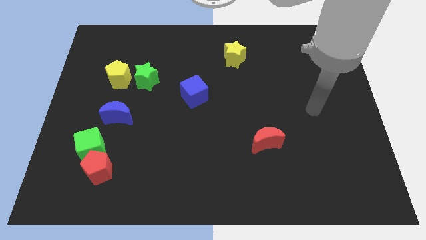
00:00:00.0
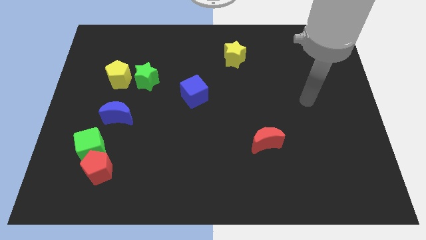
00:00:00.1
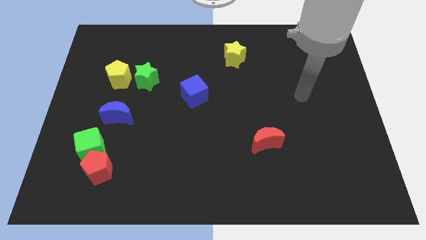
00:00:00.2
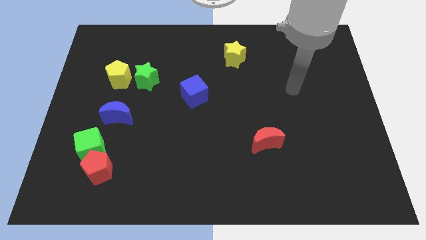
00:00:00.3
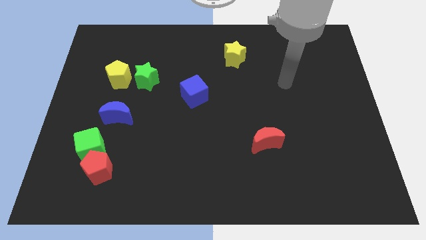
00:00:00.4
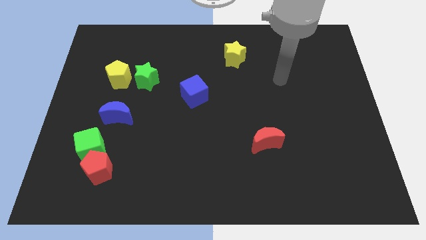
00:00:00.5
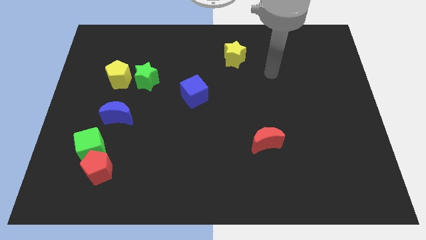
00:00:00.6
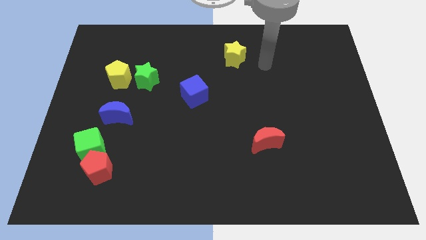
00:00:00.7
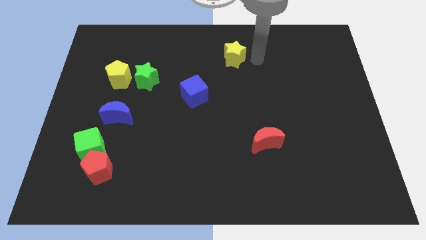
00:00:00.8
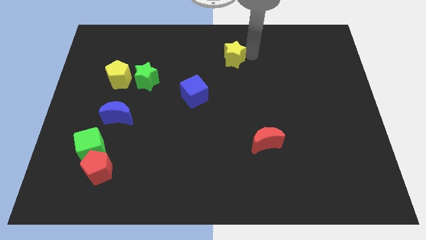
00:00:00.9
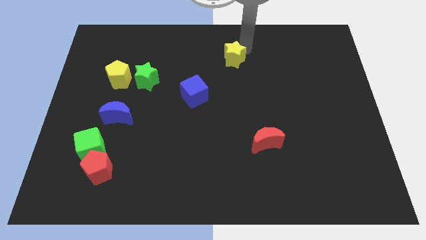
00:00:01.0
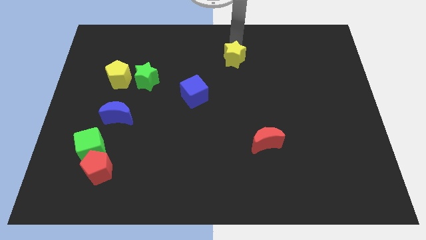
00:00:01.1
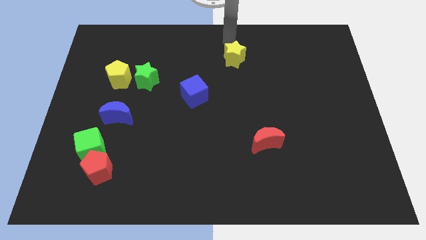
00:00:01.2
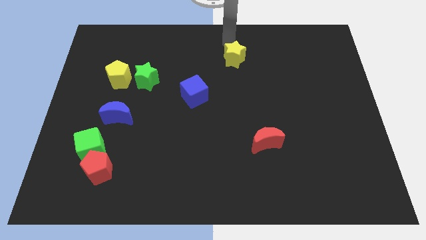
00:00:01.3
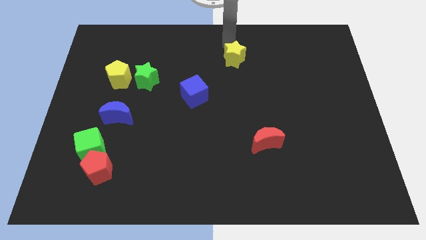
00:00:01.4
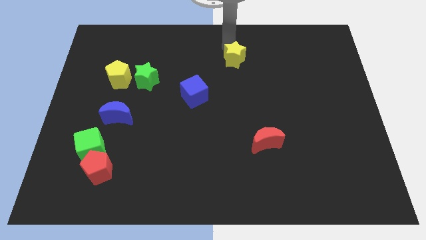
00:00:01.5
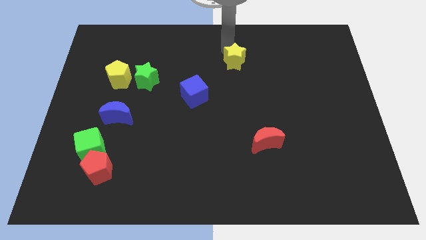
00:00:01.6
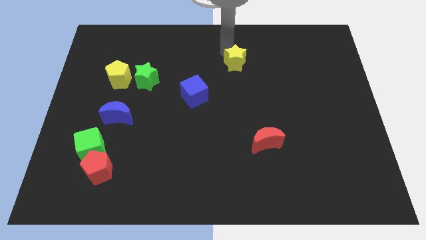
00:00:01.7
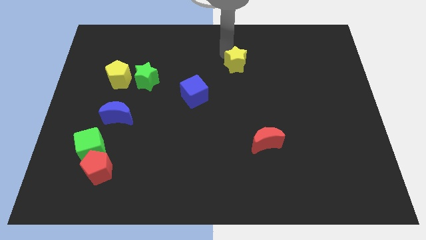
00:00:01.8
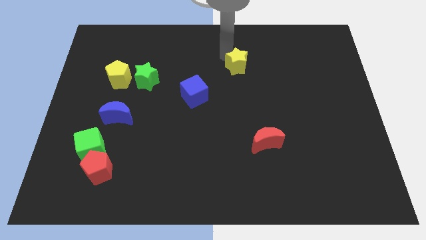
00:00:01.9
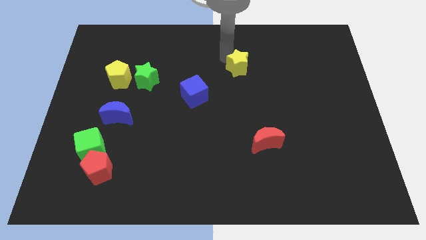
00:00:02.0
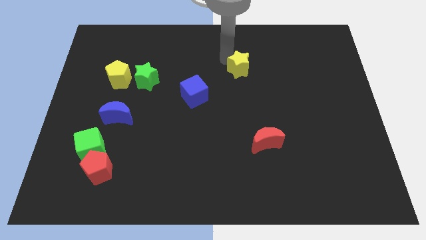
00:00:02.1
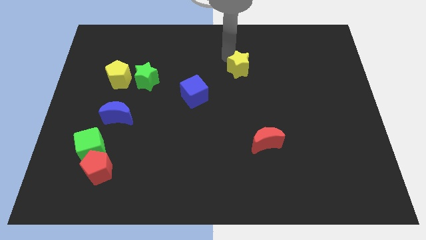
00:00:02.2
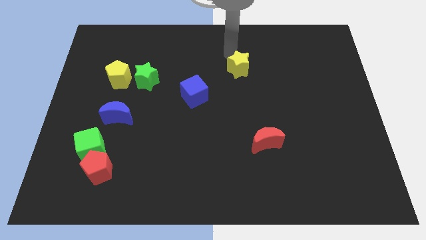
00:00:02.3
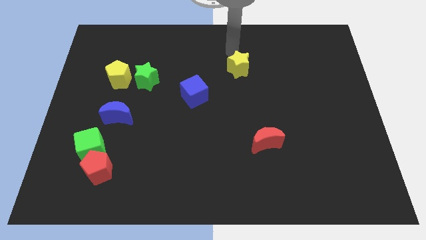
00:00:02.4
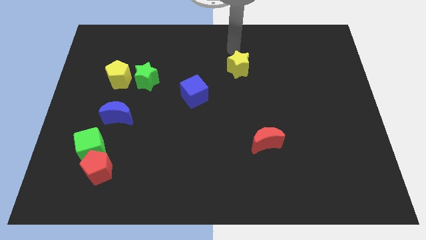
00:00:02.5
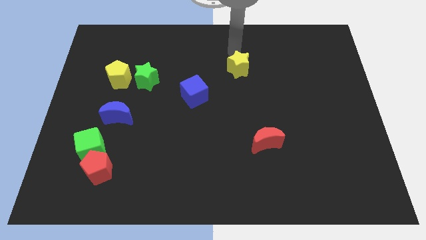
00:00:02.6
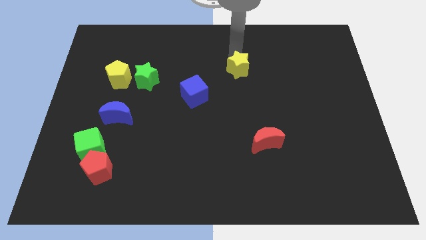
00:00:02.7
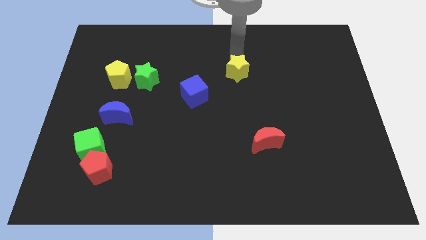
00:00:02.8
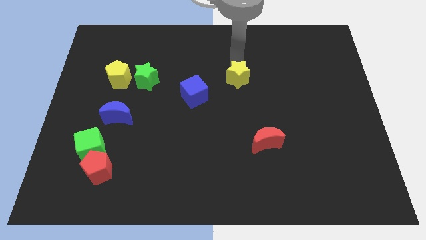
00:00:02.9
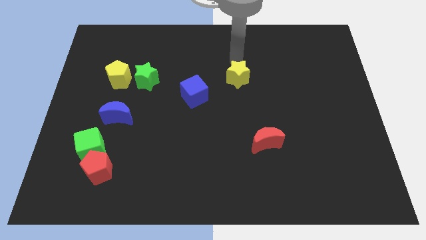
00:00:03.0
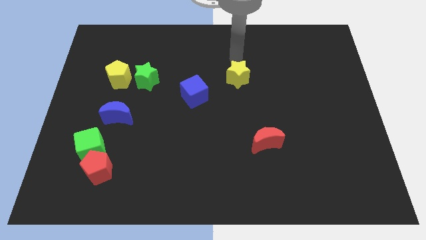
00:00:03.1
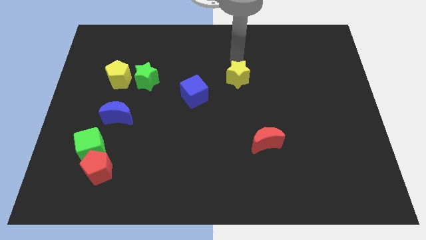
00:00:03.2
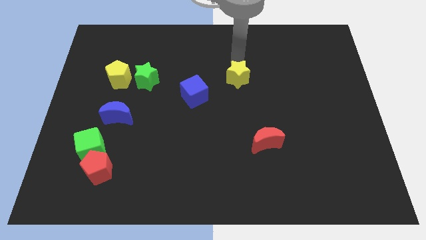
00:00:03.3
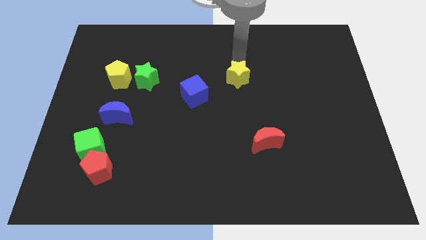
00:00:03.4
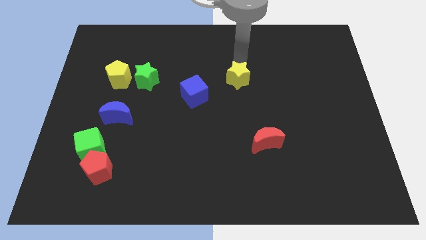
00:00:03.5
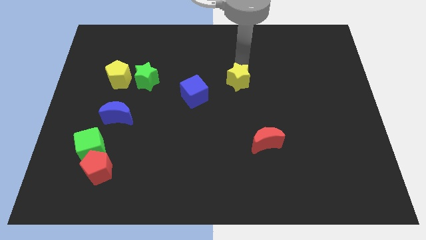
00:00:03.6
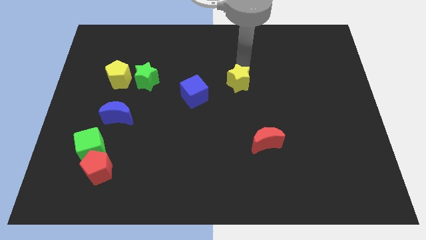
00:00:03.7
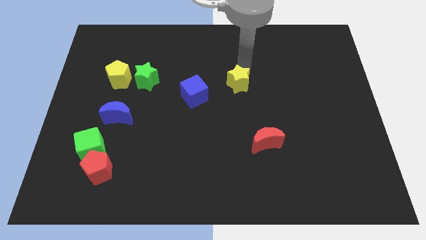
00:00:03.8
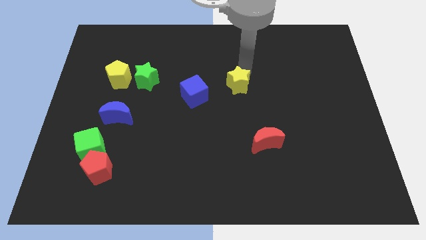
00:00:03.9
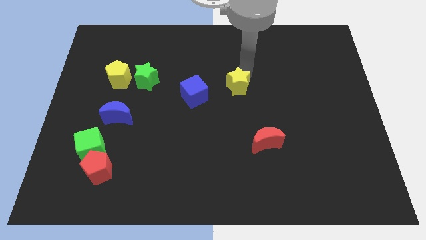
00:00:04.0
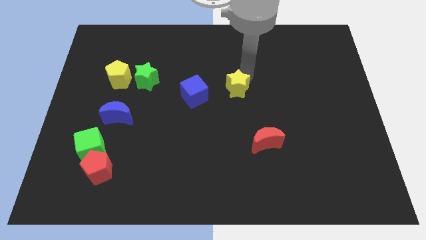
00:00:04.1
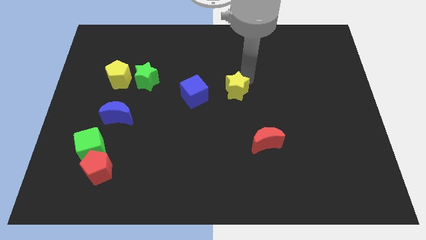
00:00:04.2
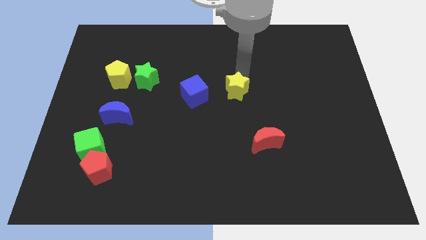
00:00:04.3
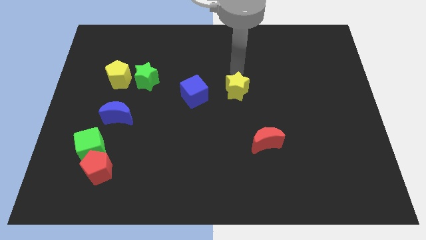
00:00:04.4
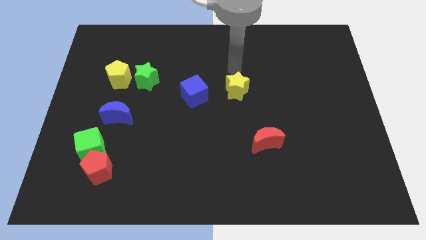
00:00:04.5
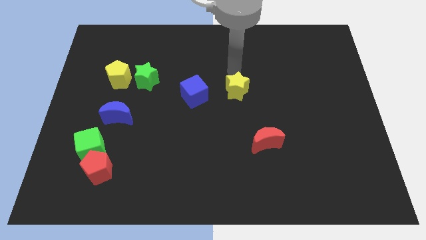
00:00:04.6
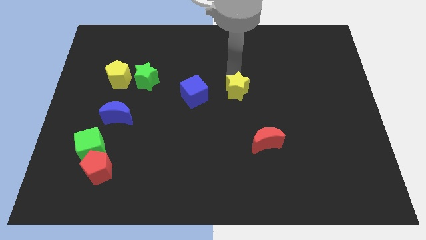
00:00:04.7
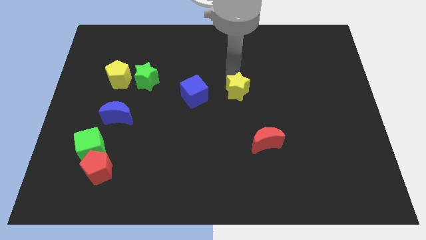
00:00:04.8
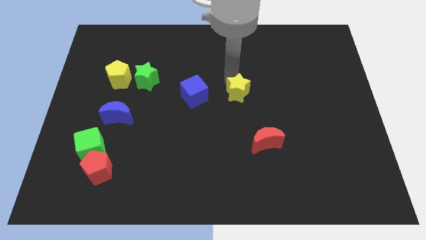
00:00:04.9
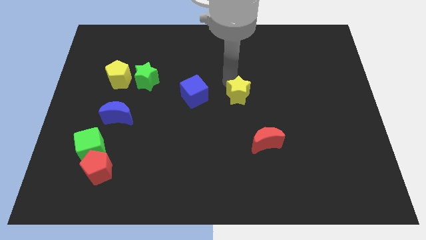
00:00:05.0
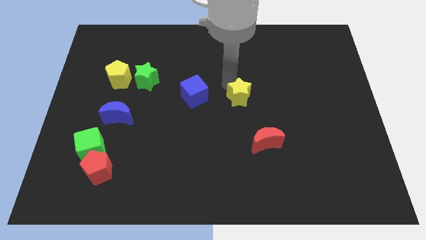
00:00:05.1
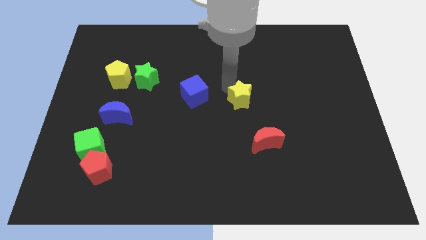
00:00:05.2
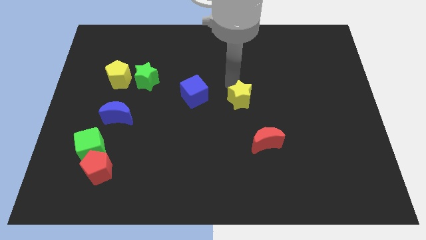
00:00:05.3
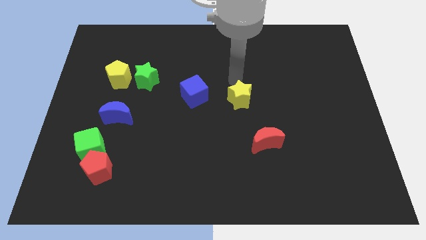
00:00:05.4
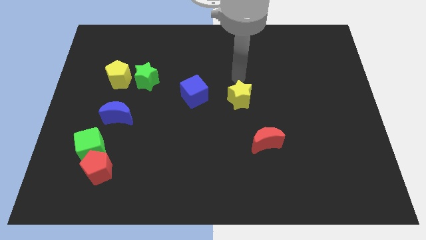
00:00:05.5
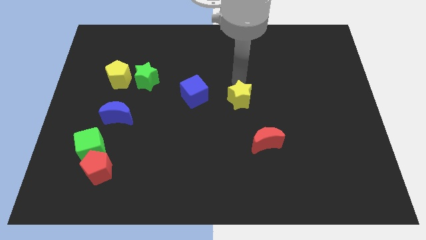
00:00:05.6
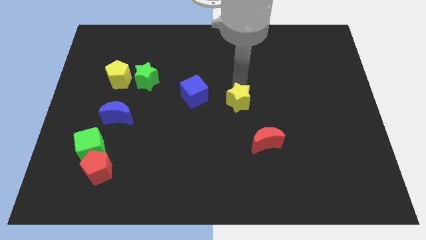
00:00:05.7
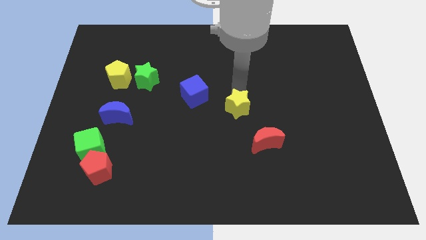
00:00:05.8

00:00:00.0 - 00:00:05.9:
push the yellow star diagonally up and to the left of the red moon

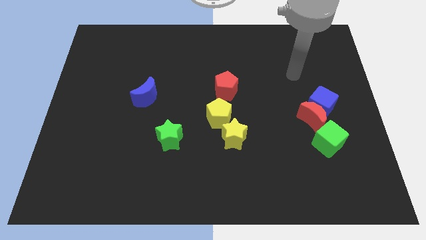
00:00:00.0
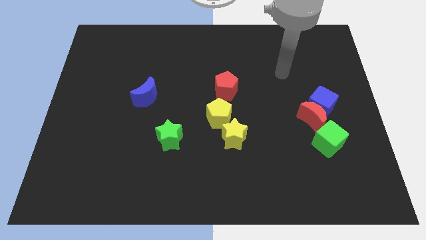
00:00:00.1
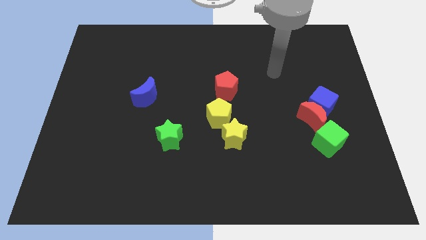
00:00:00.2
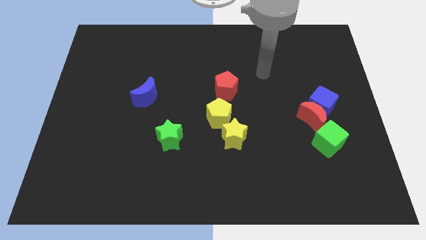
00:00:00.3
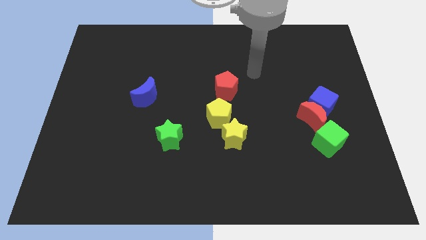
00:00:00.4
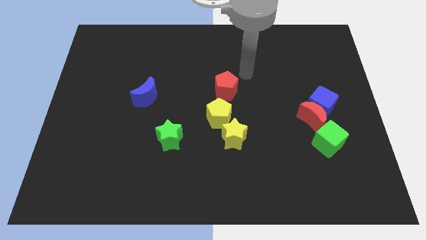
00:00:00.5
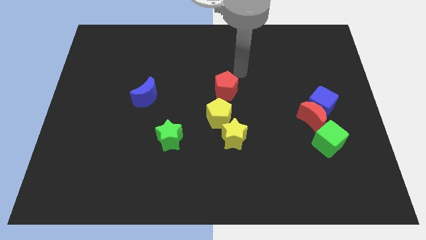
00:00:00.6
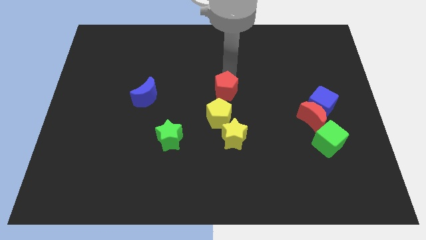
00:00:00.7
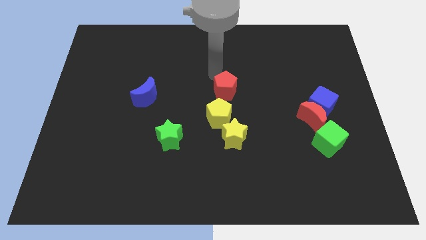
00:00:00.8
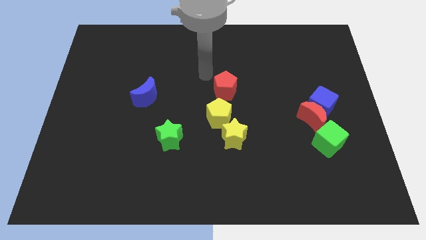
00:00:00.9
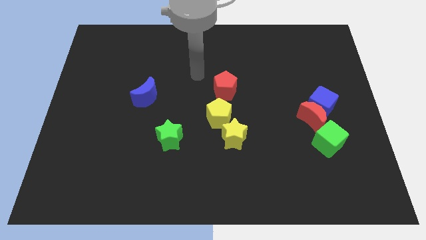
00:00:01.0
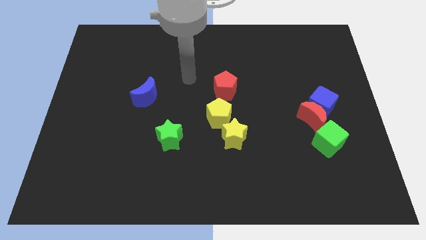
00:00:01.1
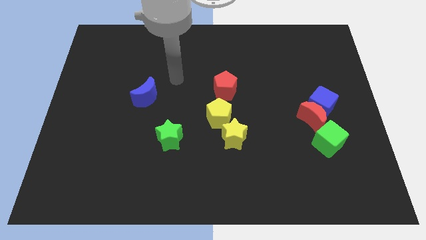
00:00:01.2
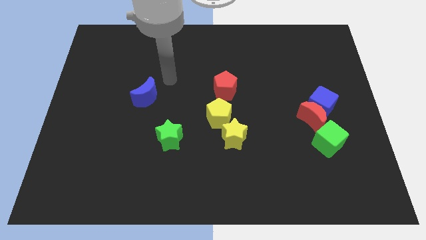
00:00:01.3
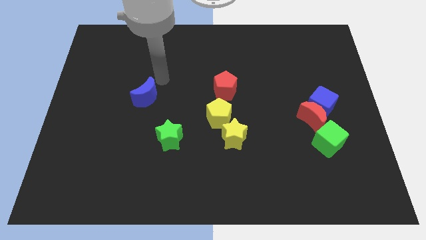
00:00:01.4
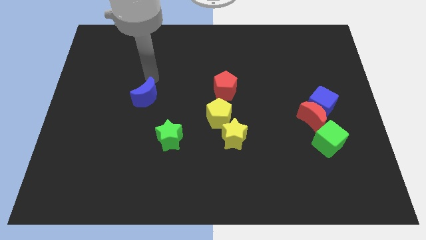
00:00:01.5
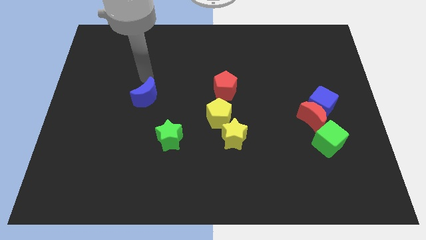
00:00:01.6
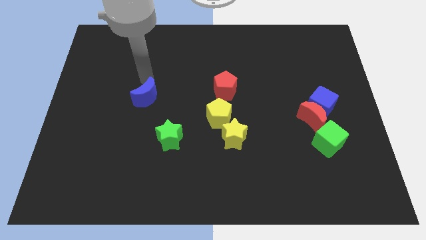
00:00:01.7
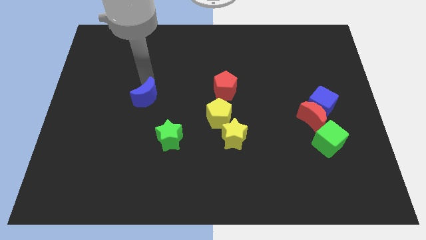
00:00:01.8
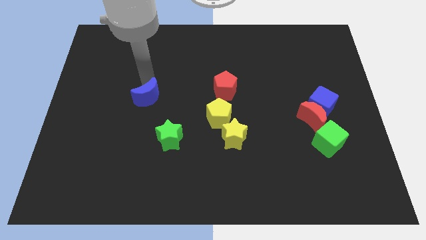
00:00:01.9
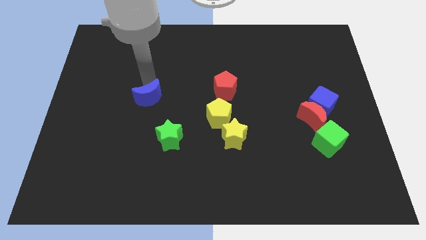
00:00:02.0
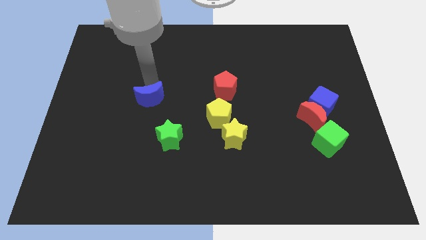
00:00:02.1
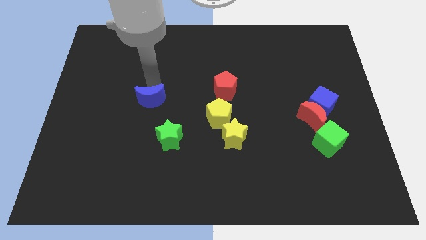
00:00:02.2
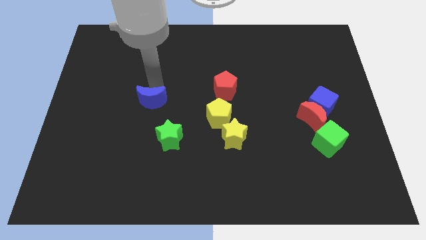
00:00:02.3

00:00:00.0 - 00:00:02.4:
move the blue moon to the top left side of the green star
